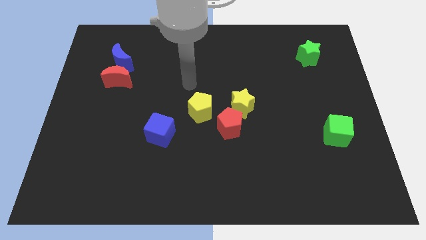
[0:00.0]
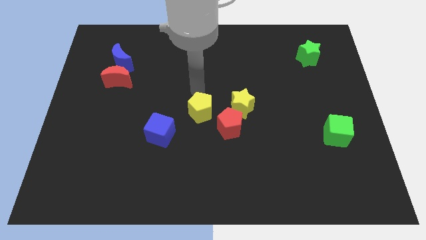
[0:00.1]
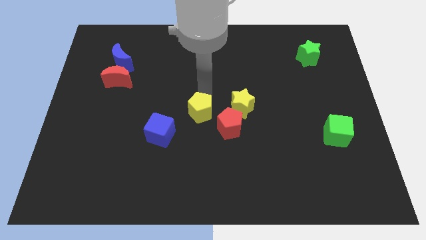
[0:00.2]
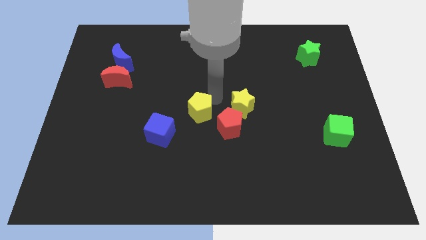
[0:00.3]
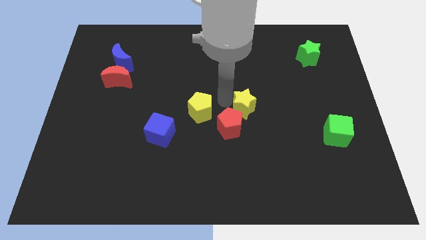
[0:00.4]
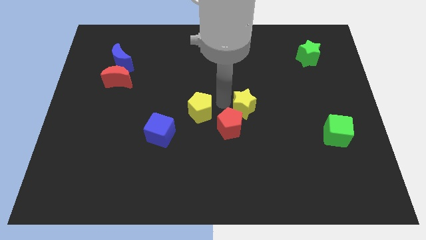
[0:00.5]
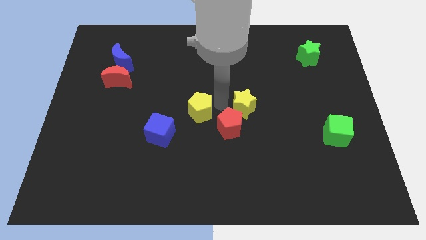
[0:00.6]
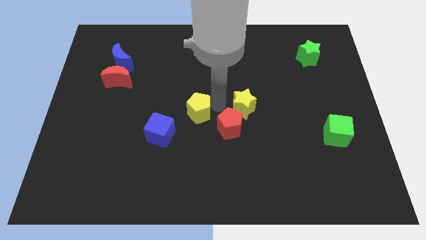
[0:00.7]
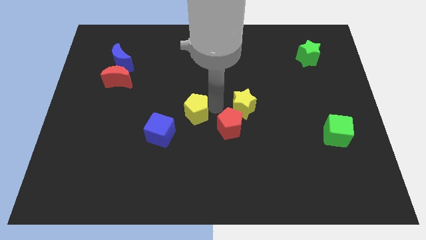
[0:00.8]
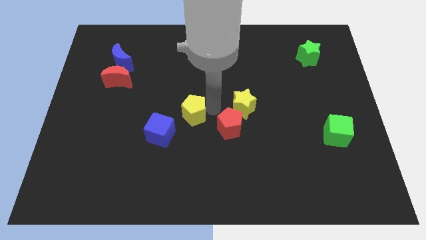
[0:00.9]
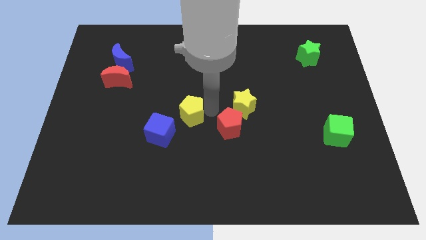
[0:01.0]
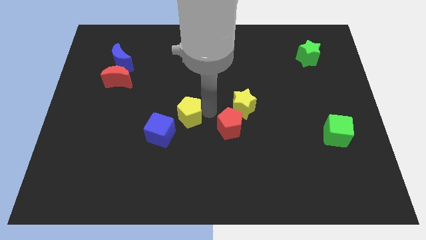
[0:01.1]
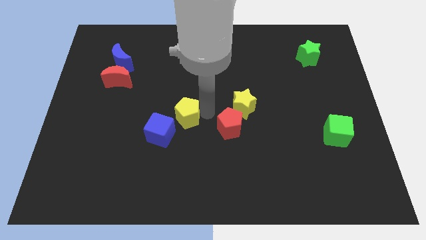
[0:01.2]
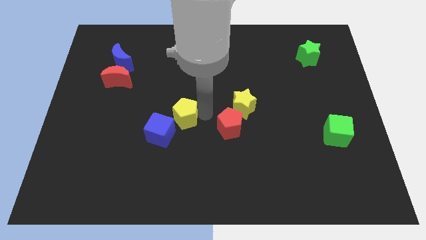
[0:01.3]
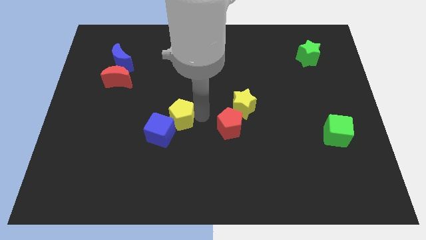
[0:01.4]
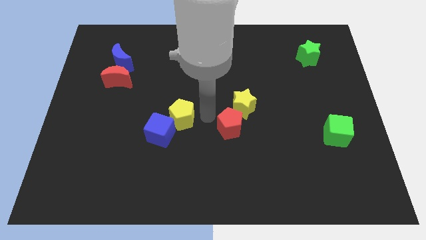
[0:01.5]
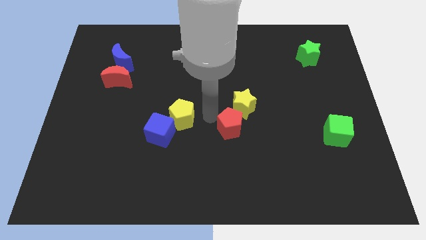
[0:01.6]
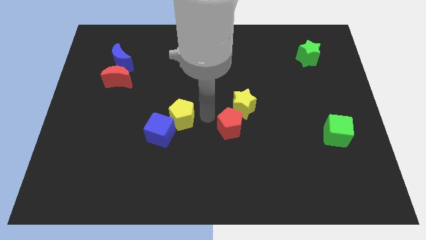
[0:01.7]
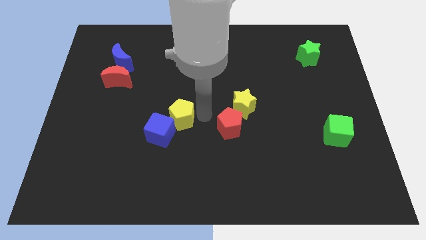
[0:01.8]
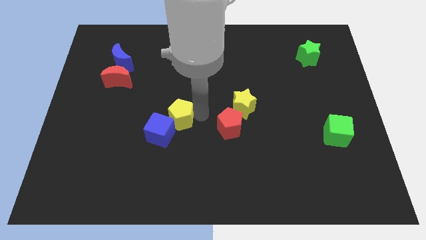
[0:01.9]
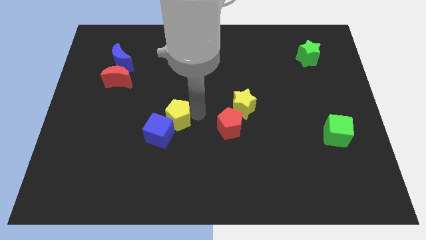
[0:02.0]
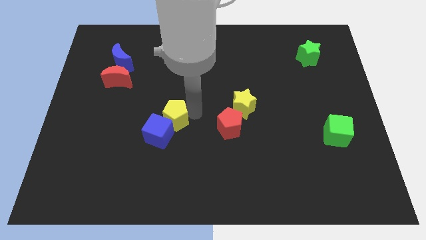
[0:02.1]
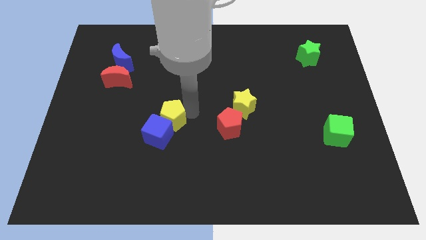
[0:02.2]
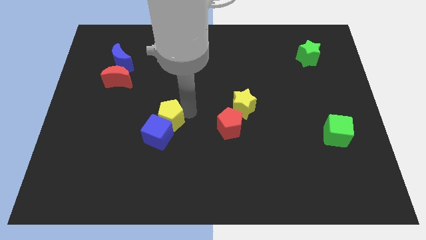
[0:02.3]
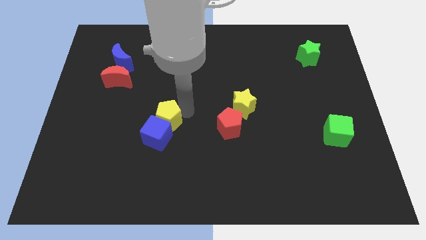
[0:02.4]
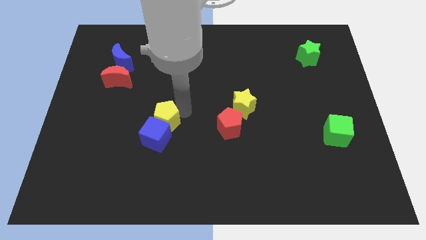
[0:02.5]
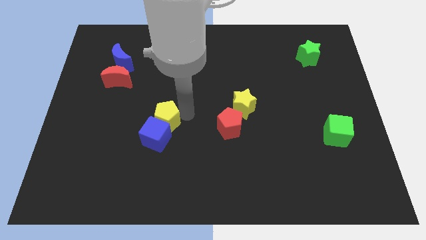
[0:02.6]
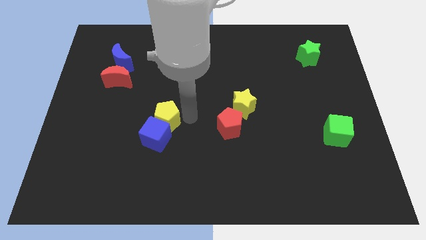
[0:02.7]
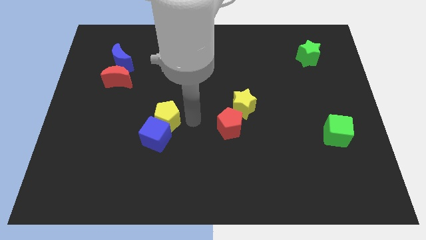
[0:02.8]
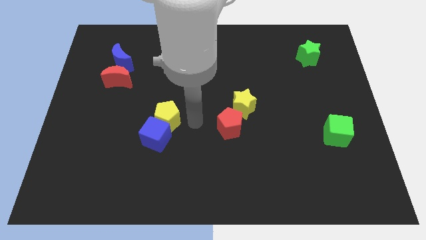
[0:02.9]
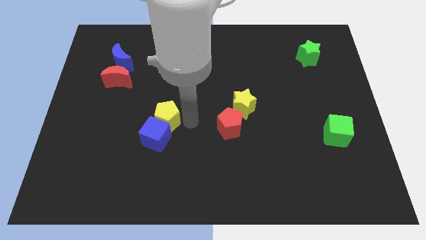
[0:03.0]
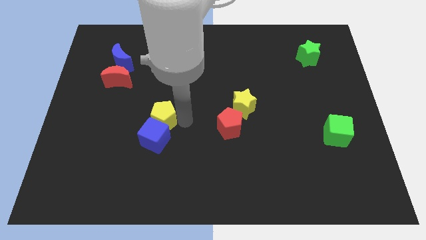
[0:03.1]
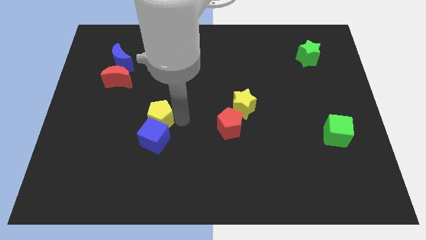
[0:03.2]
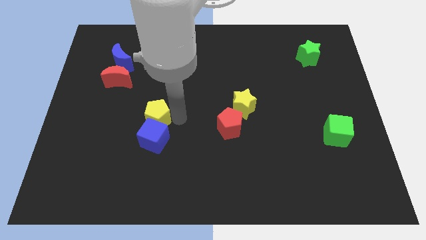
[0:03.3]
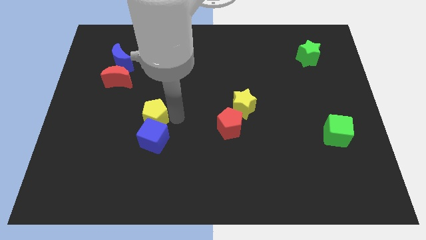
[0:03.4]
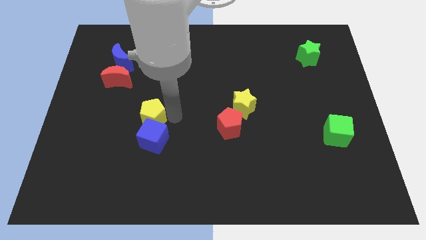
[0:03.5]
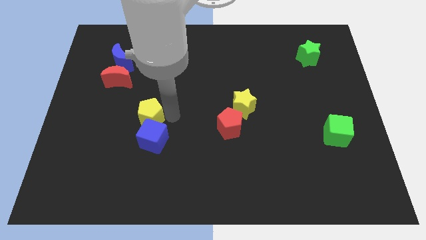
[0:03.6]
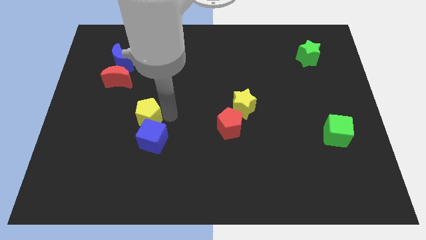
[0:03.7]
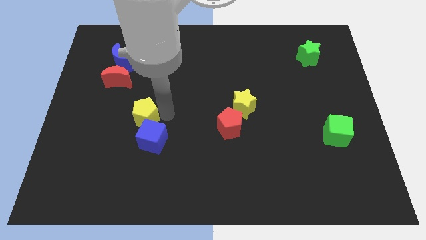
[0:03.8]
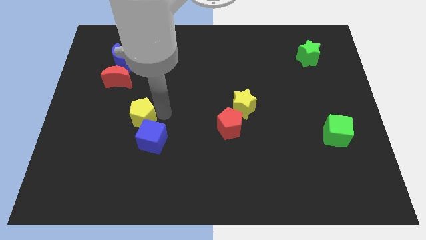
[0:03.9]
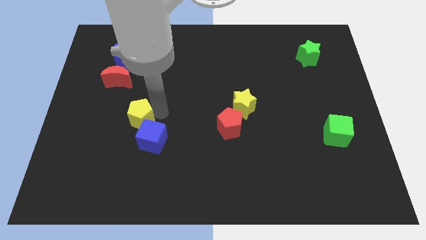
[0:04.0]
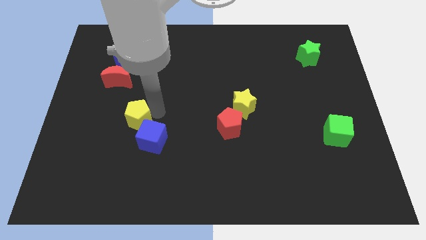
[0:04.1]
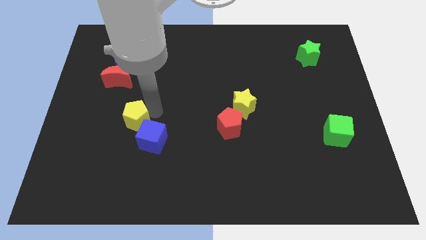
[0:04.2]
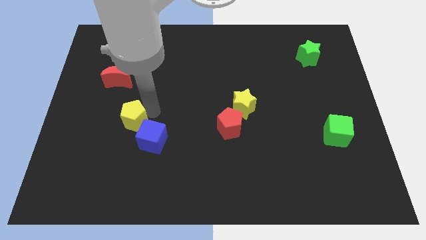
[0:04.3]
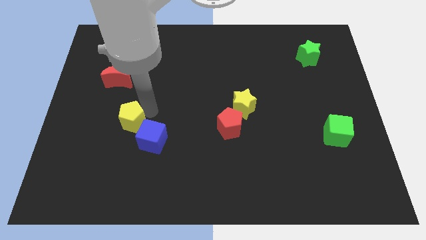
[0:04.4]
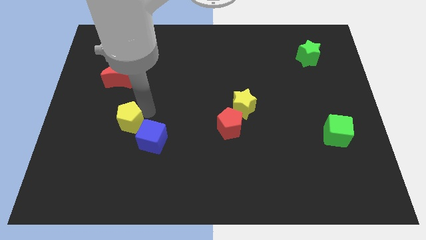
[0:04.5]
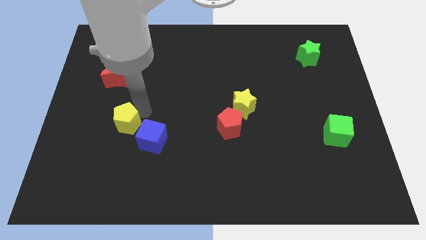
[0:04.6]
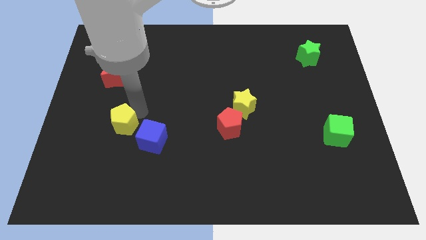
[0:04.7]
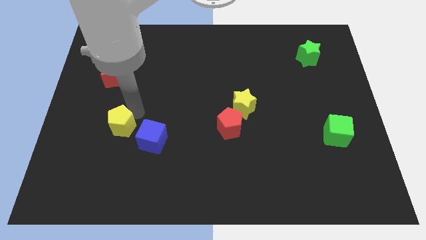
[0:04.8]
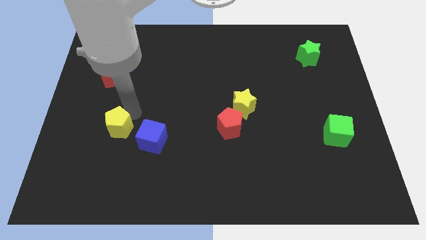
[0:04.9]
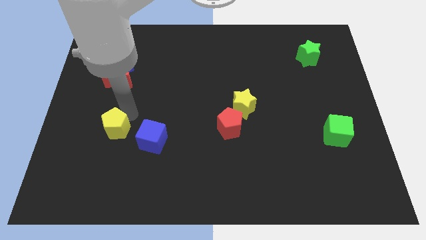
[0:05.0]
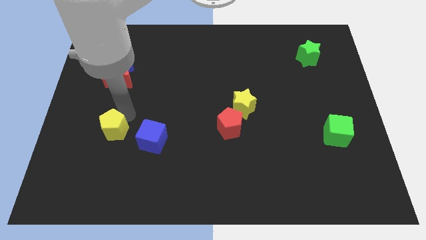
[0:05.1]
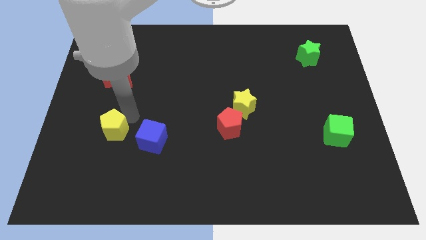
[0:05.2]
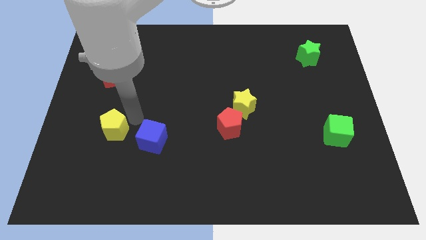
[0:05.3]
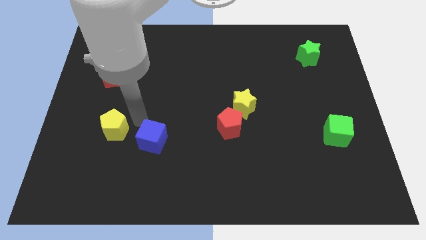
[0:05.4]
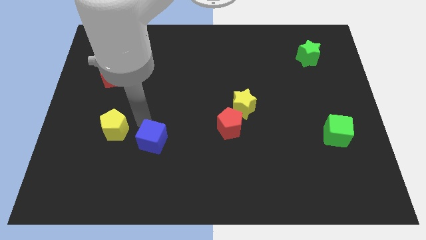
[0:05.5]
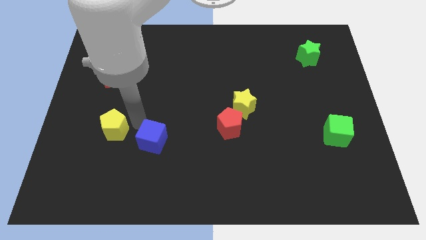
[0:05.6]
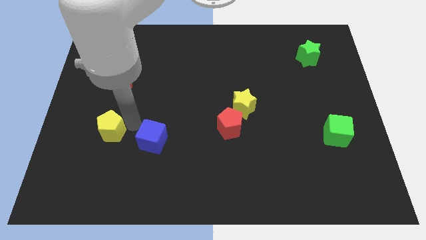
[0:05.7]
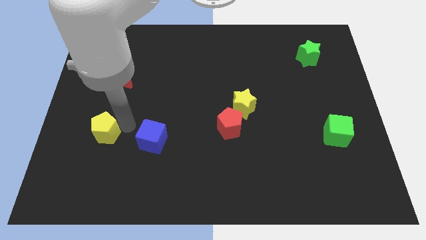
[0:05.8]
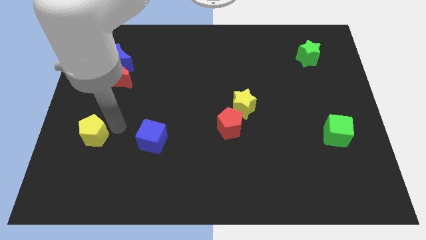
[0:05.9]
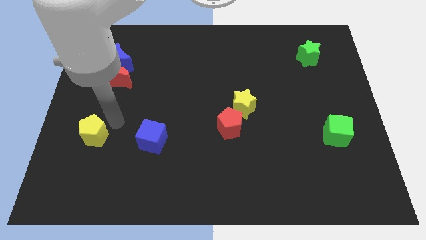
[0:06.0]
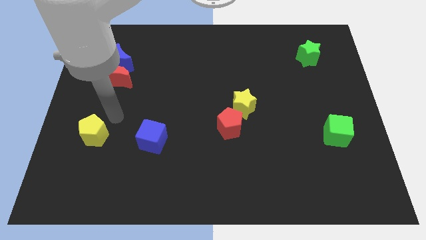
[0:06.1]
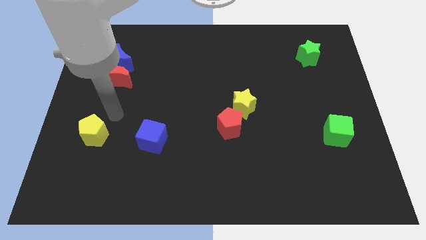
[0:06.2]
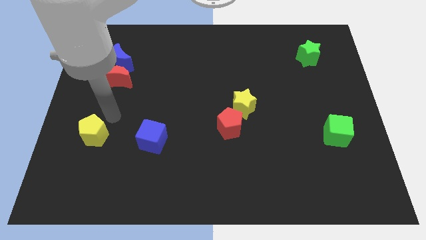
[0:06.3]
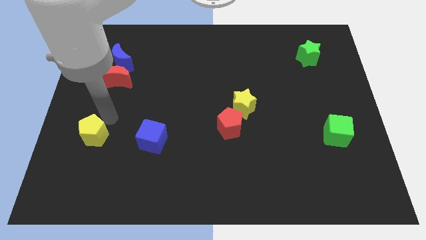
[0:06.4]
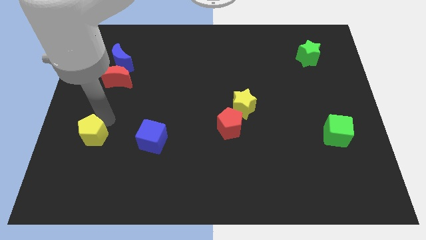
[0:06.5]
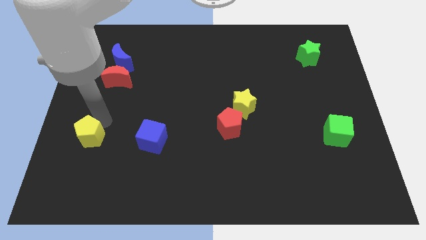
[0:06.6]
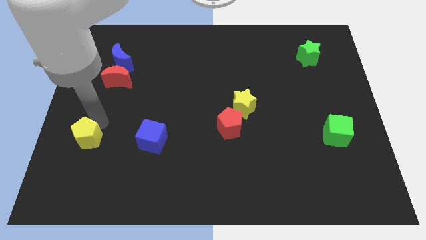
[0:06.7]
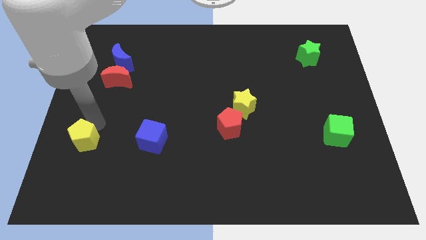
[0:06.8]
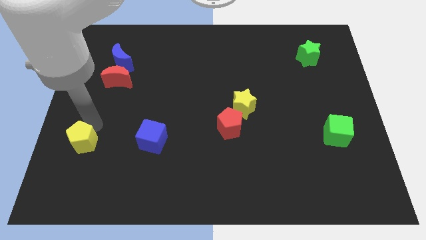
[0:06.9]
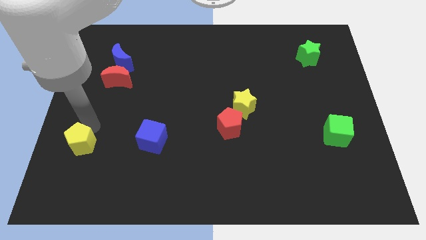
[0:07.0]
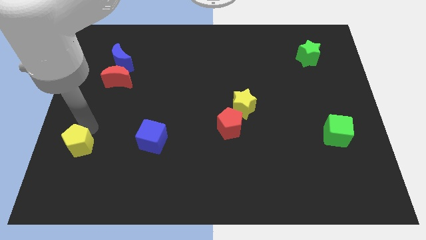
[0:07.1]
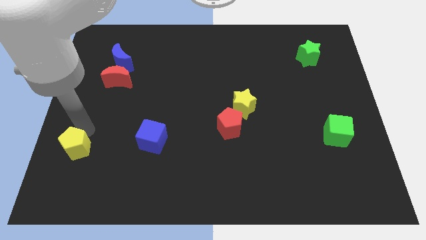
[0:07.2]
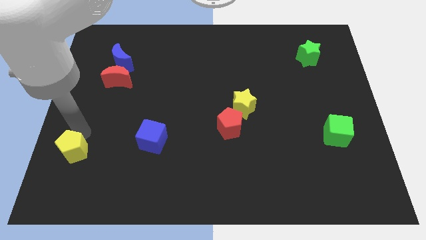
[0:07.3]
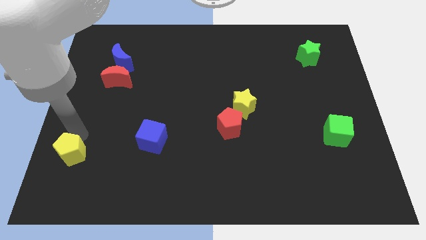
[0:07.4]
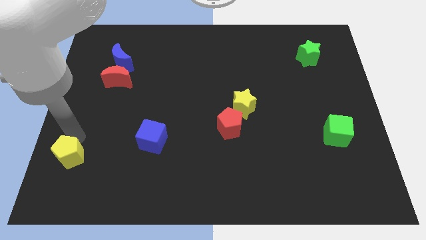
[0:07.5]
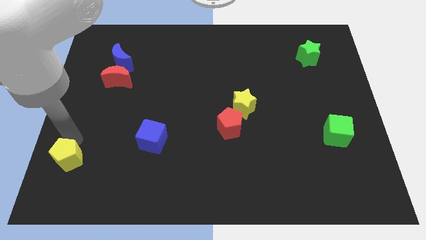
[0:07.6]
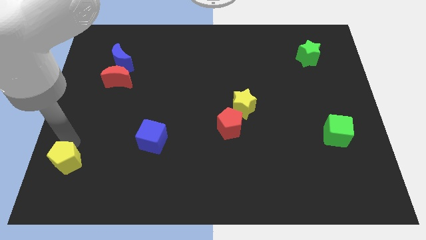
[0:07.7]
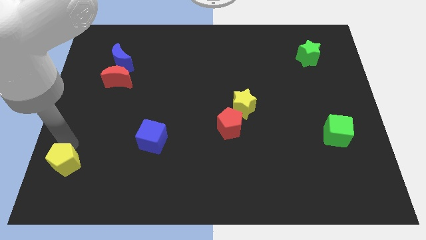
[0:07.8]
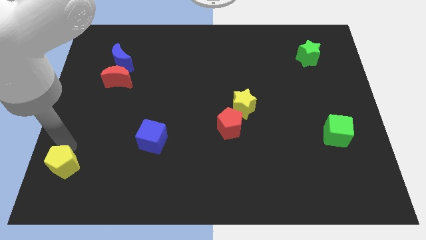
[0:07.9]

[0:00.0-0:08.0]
slide the yellow pentagon to the lower left corner
